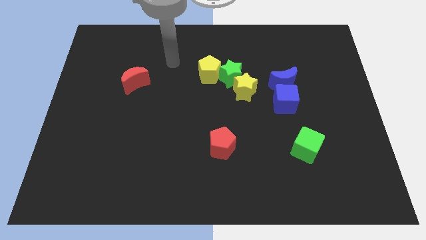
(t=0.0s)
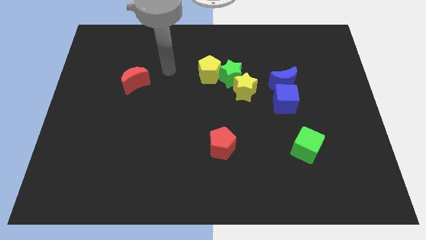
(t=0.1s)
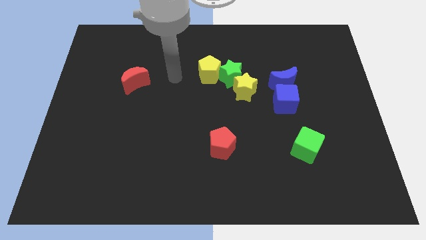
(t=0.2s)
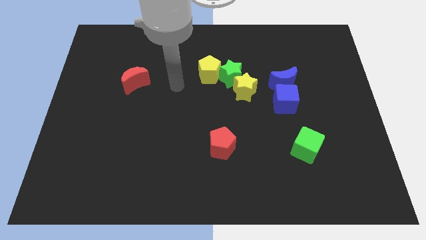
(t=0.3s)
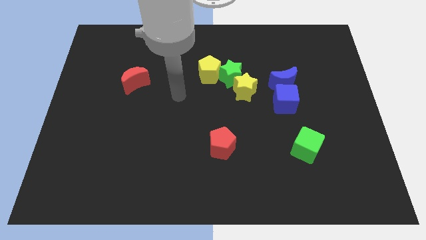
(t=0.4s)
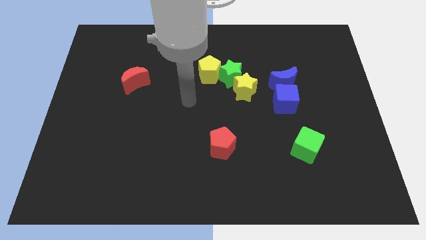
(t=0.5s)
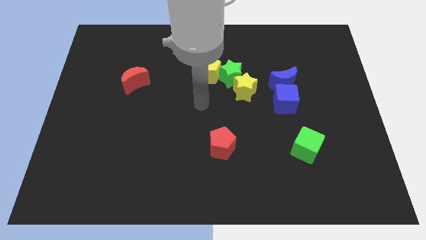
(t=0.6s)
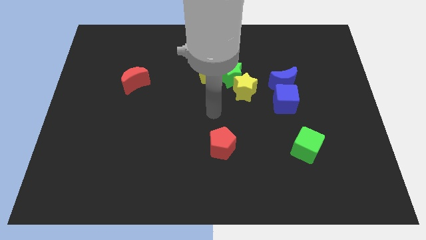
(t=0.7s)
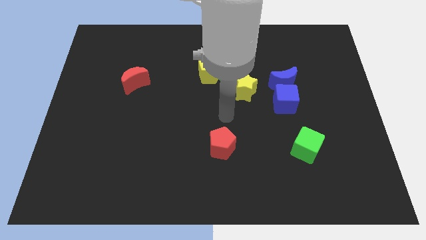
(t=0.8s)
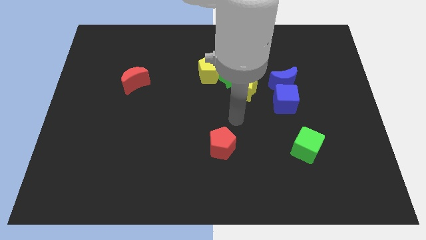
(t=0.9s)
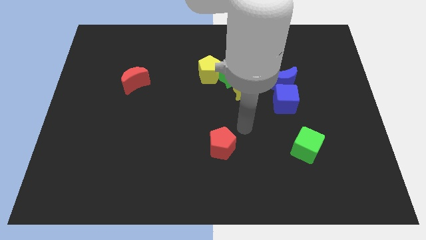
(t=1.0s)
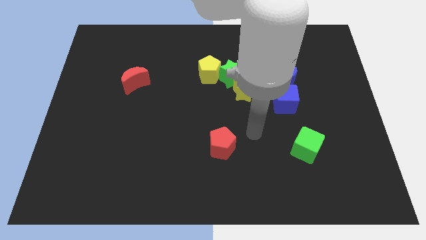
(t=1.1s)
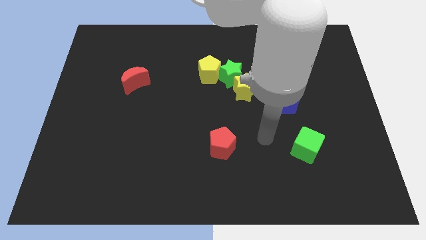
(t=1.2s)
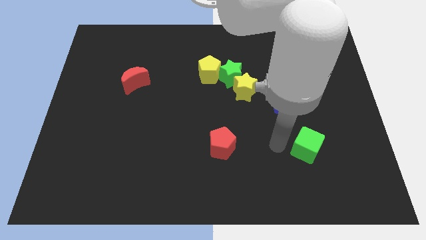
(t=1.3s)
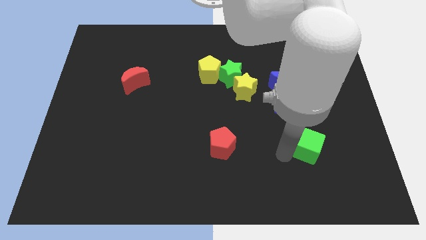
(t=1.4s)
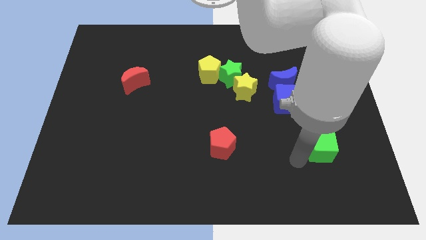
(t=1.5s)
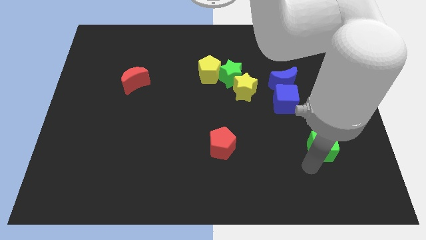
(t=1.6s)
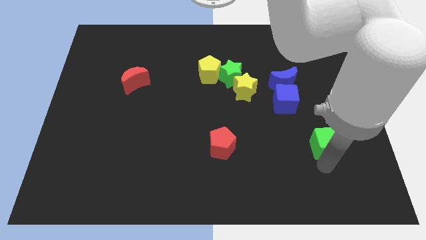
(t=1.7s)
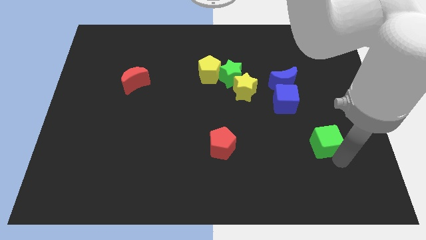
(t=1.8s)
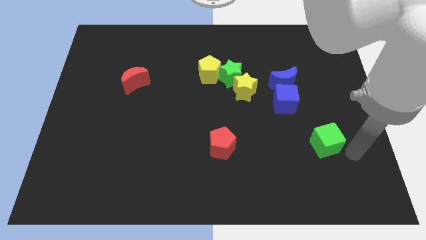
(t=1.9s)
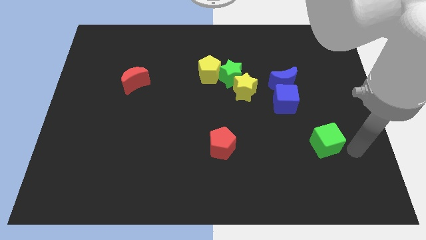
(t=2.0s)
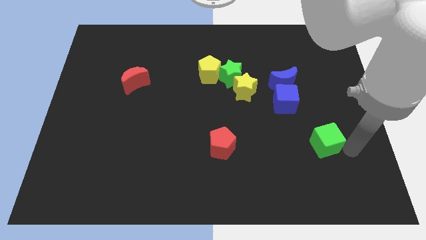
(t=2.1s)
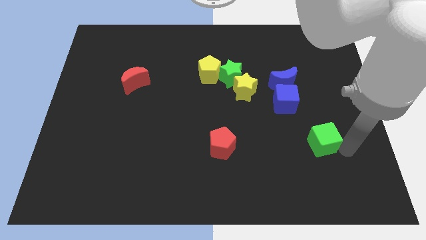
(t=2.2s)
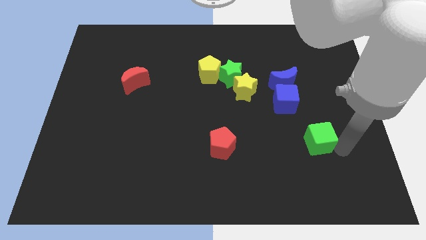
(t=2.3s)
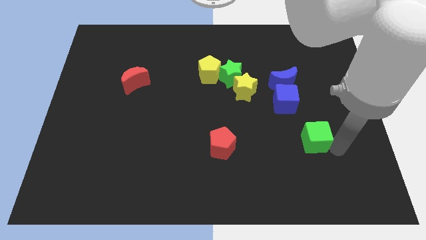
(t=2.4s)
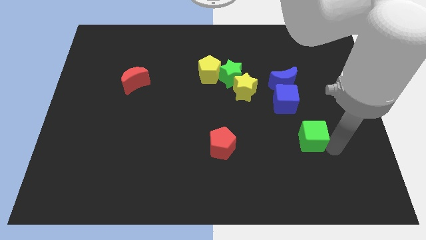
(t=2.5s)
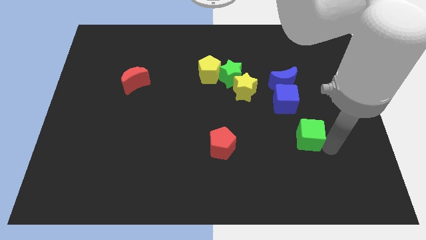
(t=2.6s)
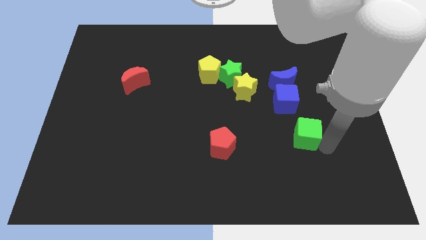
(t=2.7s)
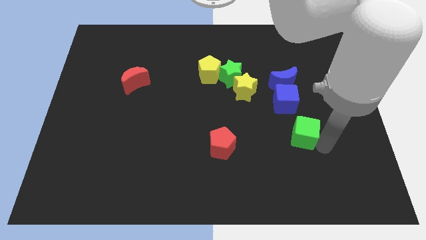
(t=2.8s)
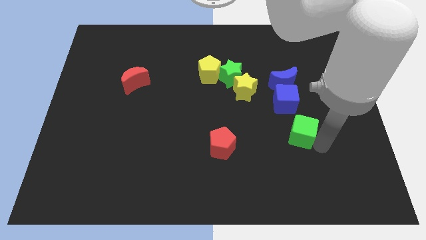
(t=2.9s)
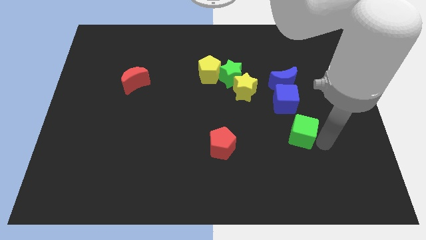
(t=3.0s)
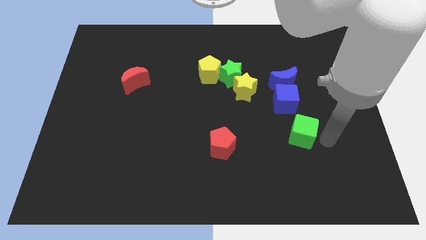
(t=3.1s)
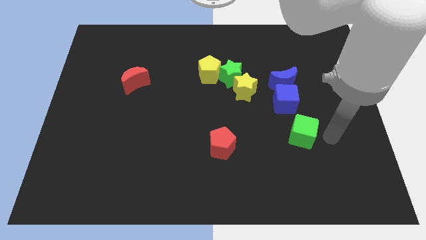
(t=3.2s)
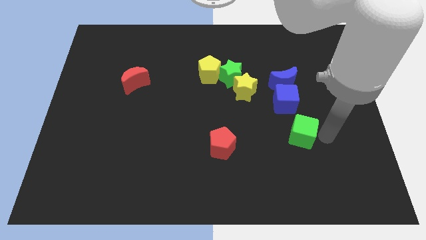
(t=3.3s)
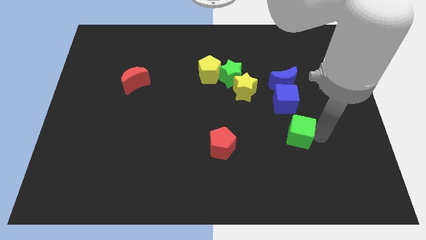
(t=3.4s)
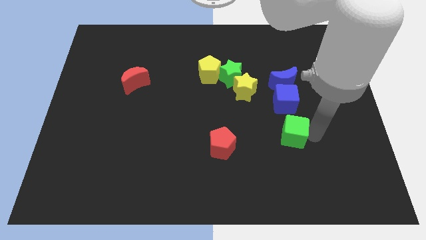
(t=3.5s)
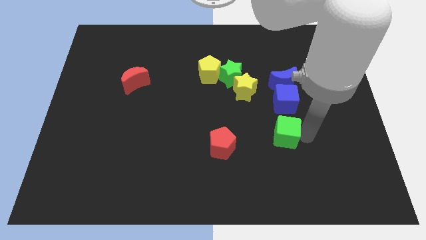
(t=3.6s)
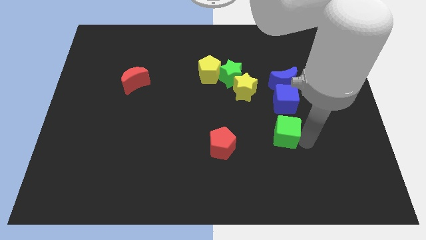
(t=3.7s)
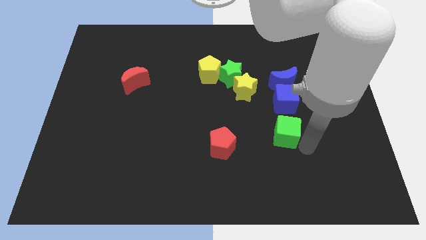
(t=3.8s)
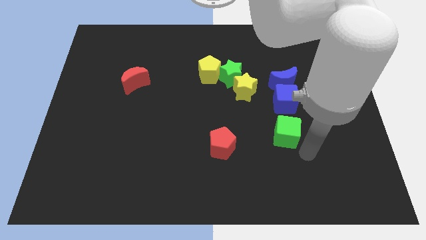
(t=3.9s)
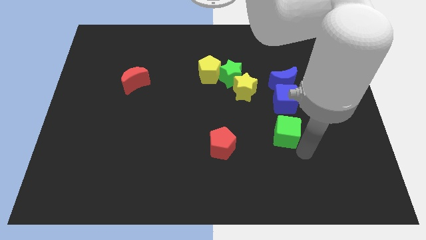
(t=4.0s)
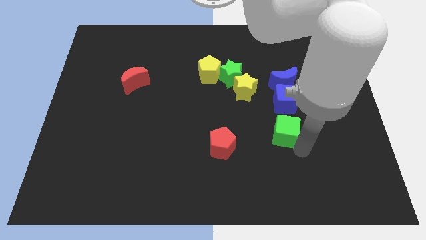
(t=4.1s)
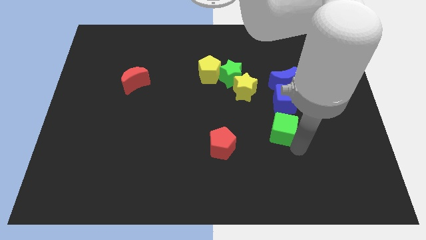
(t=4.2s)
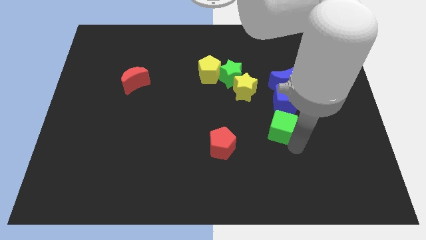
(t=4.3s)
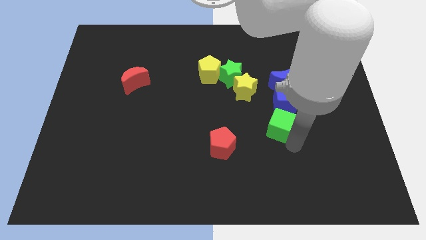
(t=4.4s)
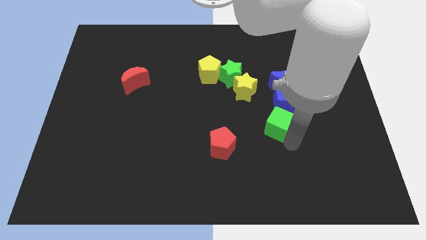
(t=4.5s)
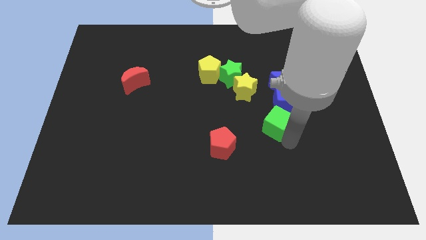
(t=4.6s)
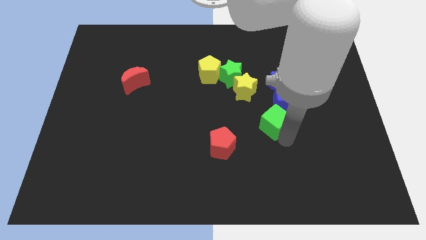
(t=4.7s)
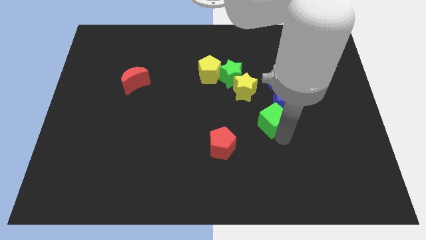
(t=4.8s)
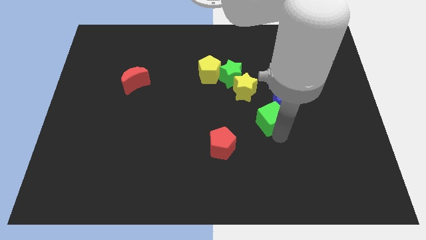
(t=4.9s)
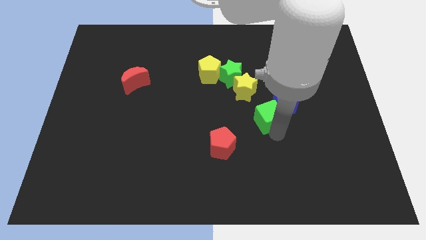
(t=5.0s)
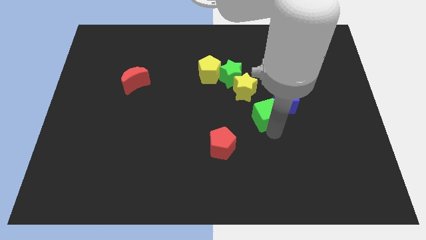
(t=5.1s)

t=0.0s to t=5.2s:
put the green cube to the bottom left of the blue moon

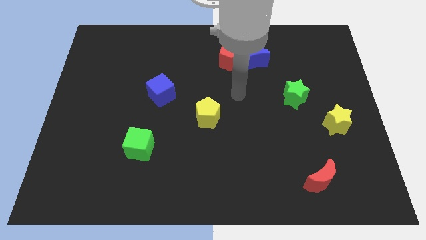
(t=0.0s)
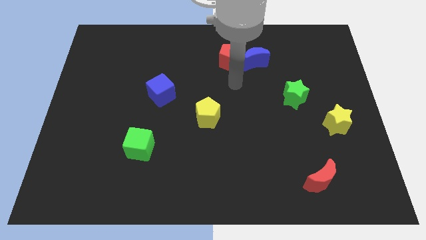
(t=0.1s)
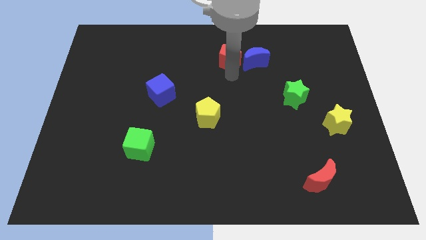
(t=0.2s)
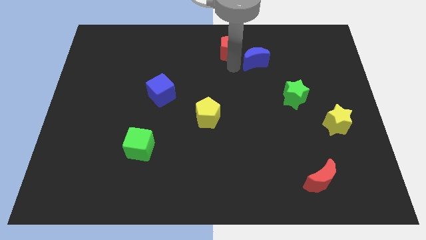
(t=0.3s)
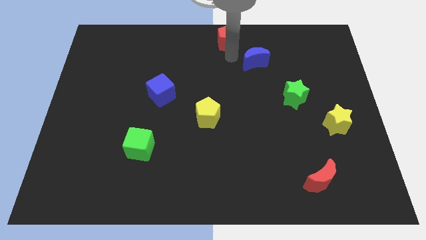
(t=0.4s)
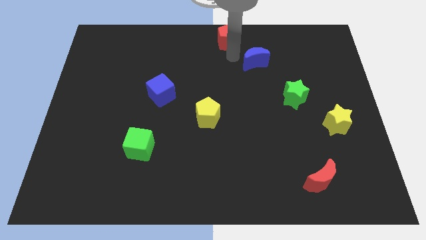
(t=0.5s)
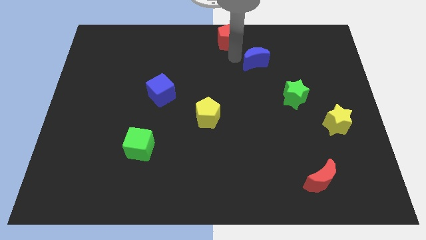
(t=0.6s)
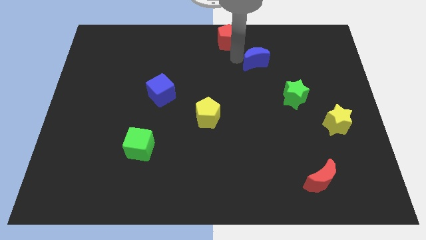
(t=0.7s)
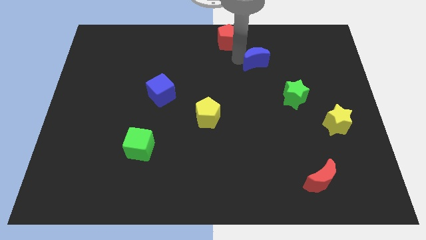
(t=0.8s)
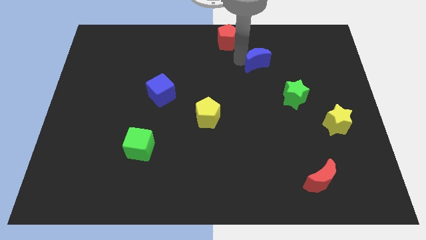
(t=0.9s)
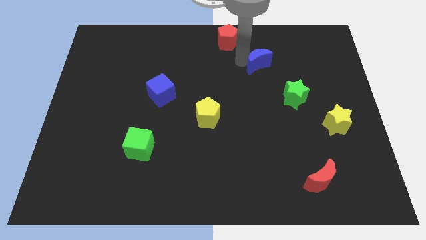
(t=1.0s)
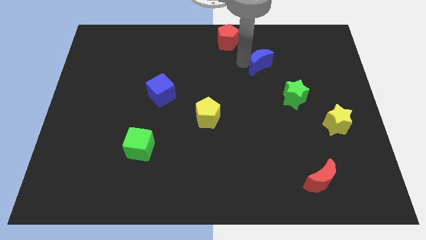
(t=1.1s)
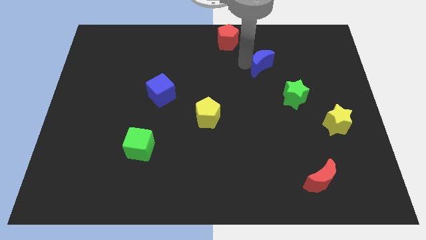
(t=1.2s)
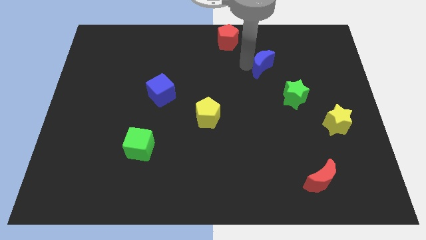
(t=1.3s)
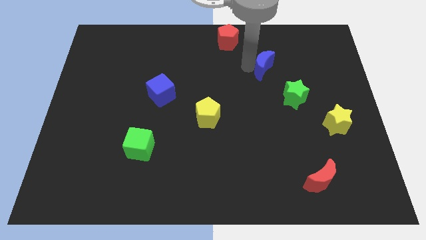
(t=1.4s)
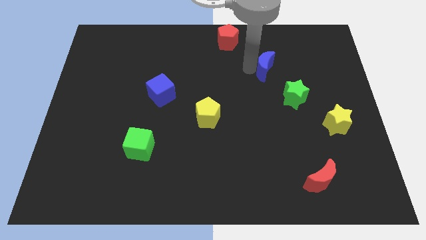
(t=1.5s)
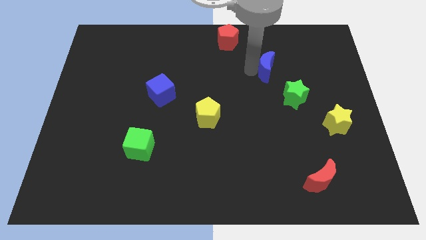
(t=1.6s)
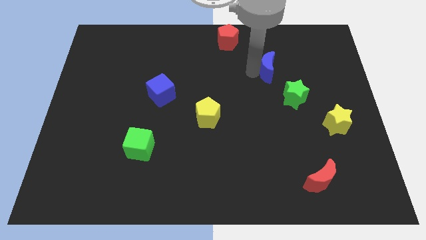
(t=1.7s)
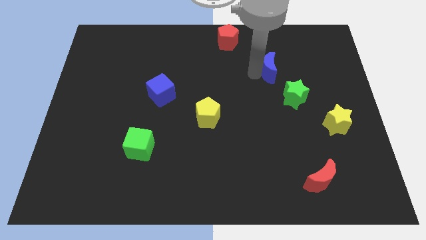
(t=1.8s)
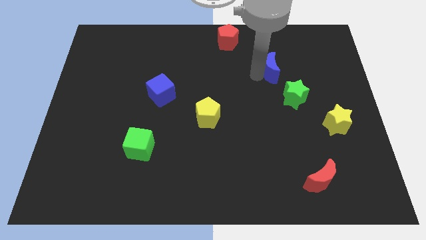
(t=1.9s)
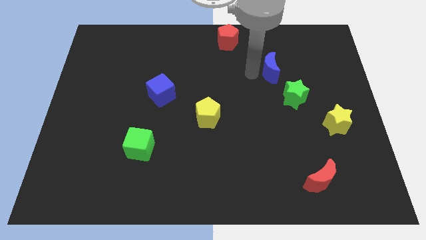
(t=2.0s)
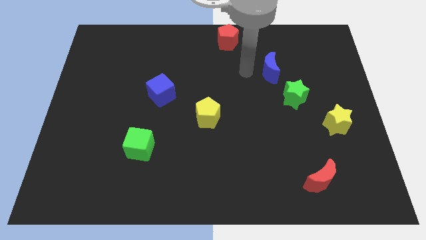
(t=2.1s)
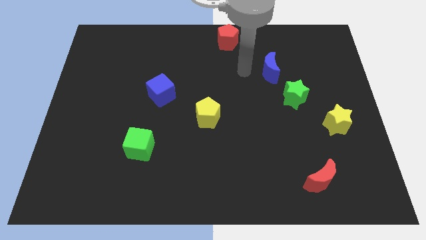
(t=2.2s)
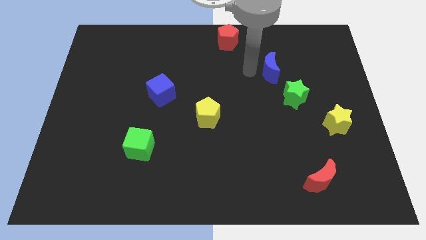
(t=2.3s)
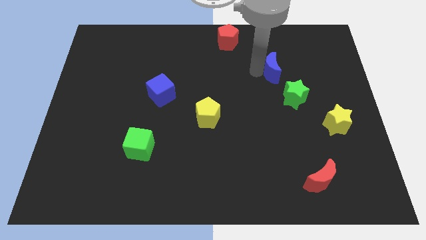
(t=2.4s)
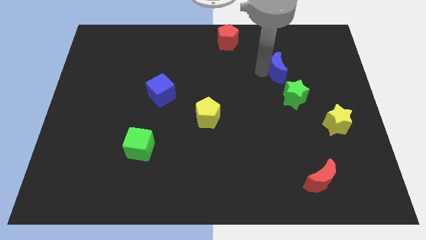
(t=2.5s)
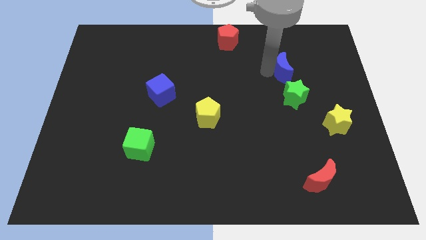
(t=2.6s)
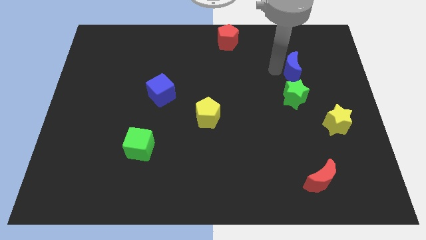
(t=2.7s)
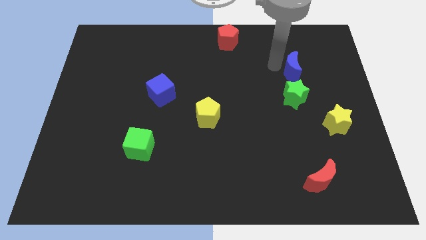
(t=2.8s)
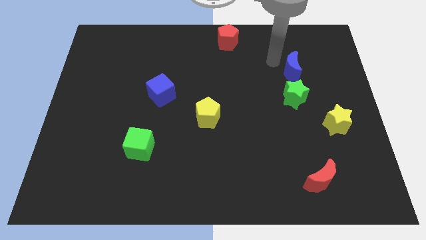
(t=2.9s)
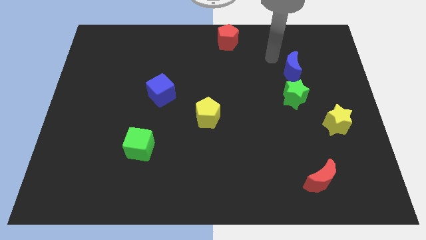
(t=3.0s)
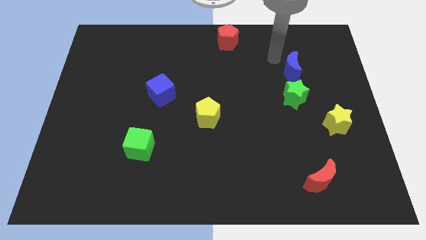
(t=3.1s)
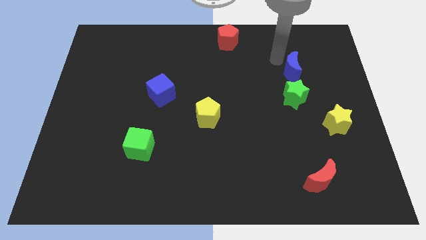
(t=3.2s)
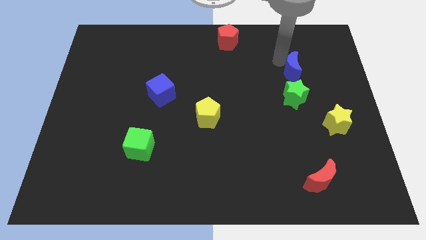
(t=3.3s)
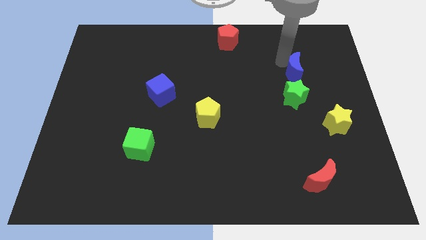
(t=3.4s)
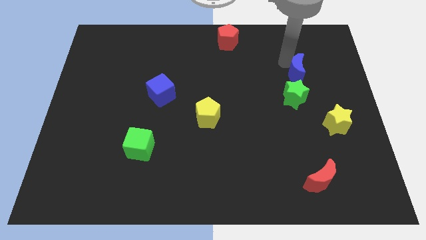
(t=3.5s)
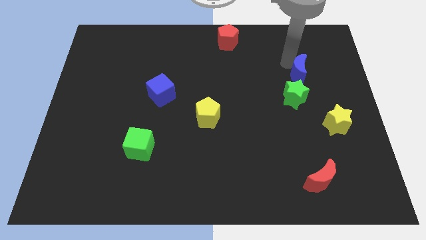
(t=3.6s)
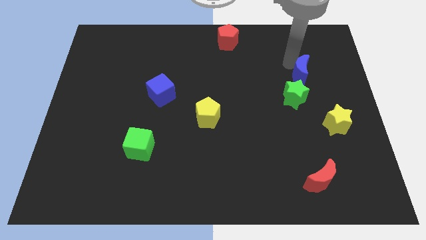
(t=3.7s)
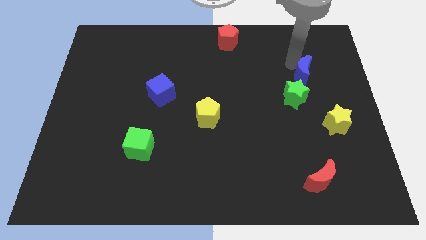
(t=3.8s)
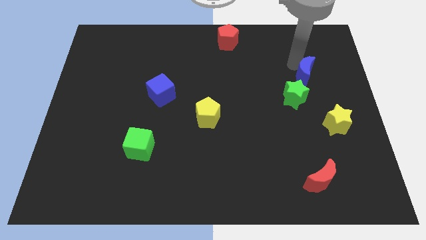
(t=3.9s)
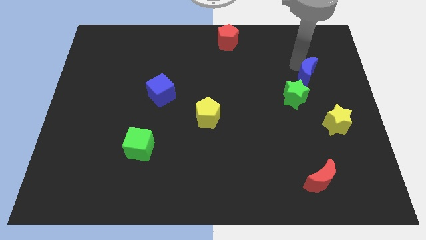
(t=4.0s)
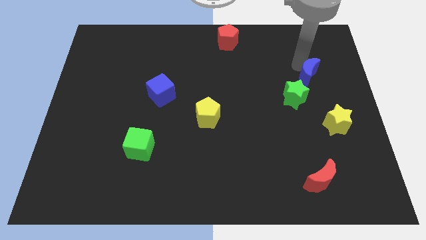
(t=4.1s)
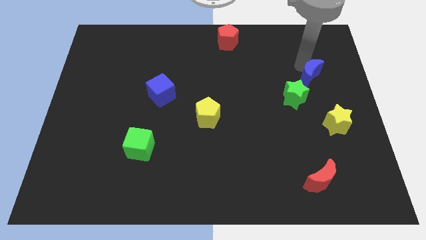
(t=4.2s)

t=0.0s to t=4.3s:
slide the blue moon to the top side of the yellow star
